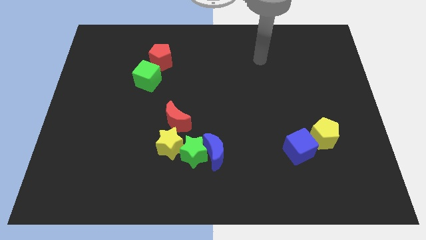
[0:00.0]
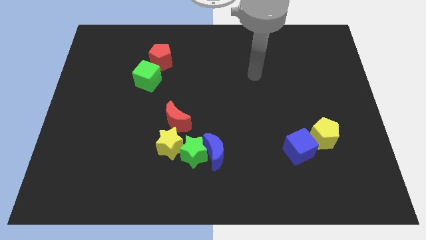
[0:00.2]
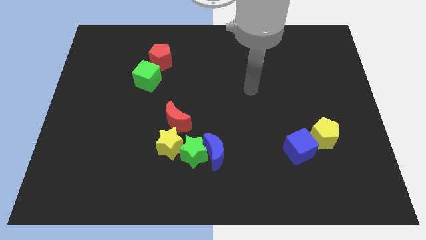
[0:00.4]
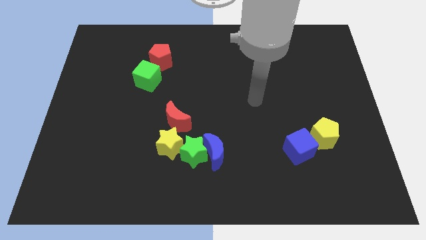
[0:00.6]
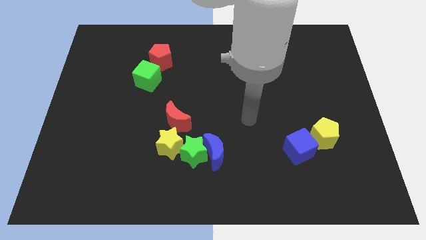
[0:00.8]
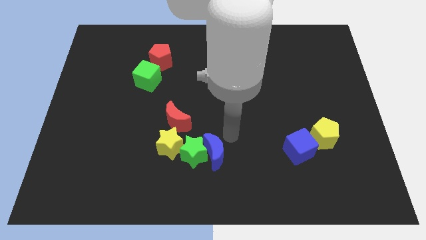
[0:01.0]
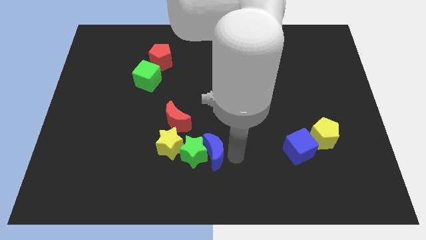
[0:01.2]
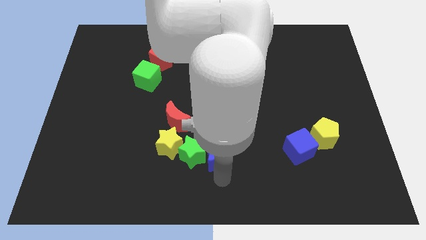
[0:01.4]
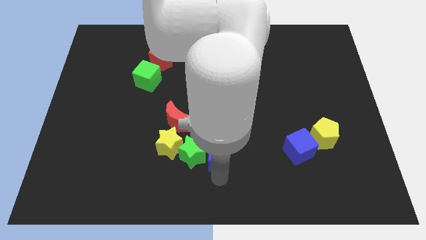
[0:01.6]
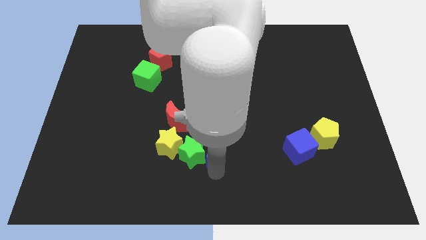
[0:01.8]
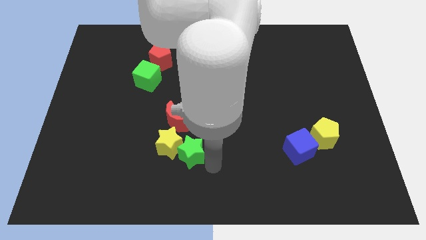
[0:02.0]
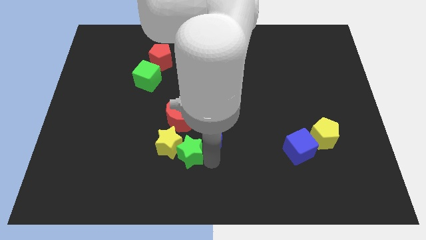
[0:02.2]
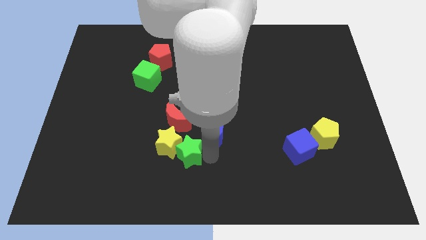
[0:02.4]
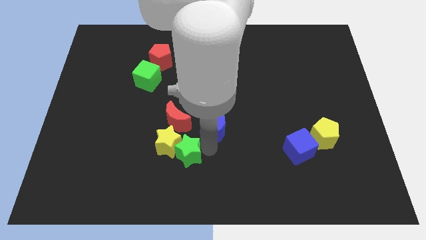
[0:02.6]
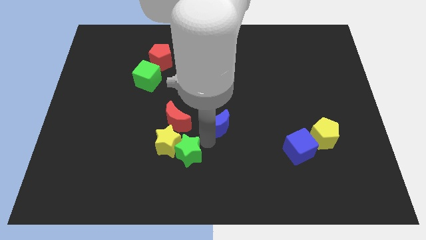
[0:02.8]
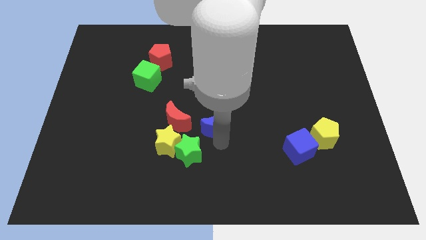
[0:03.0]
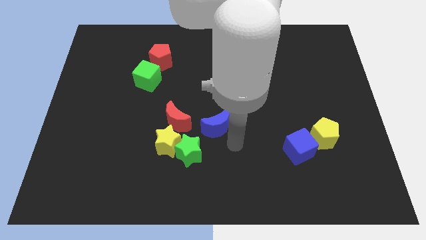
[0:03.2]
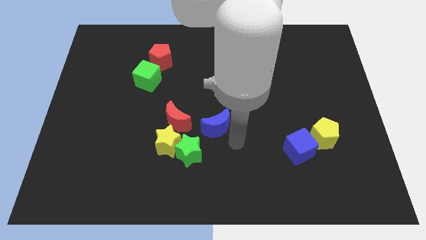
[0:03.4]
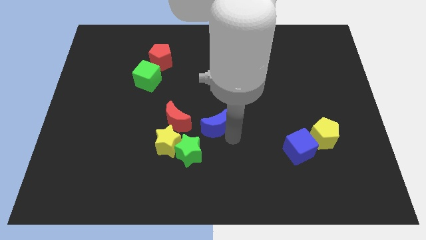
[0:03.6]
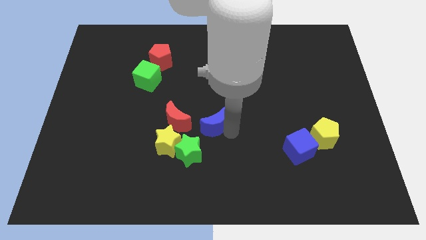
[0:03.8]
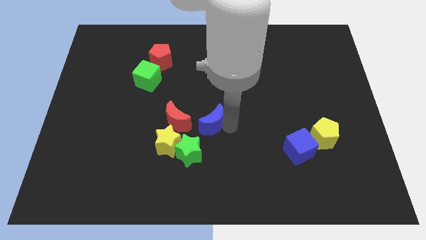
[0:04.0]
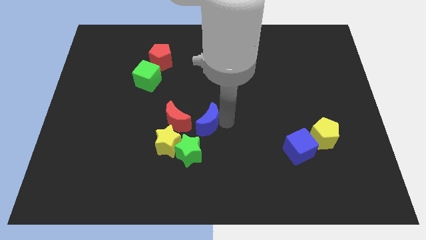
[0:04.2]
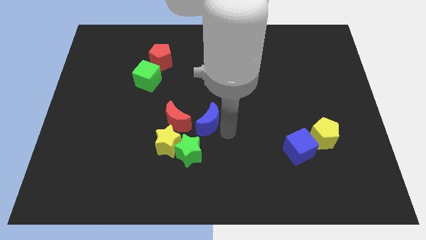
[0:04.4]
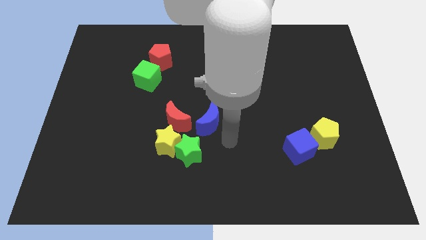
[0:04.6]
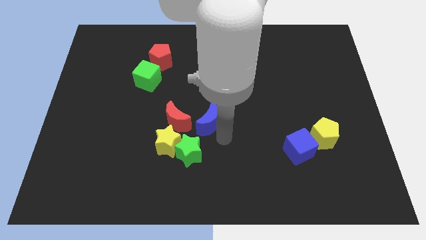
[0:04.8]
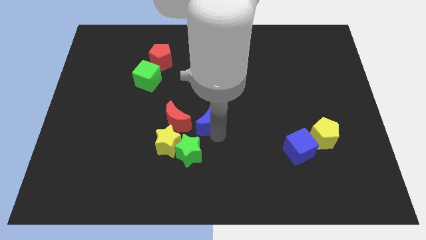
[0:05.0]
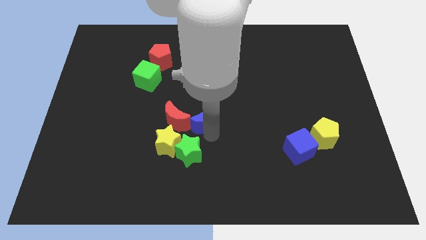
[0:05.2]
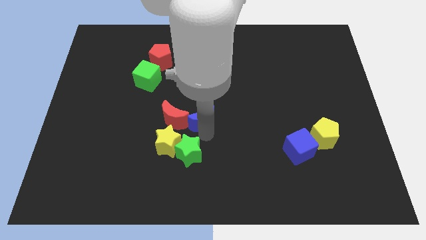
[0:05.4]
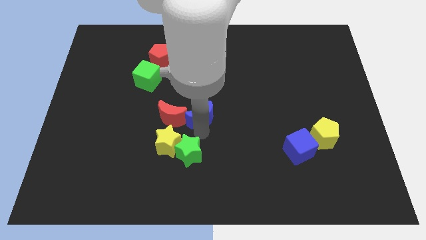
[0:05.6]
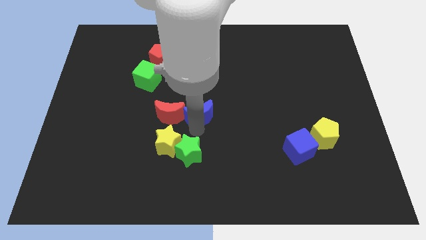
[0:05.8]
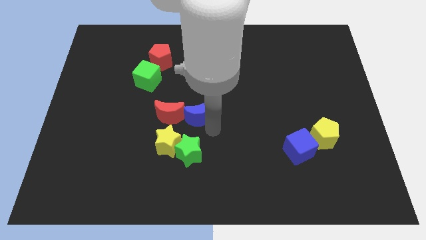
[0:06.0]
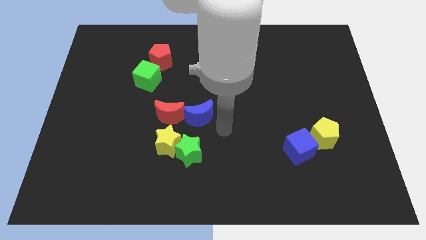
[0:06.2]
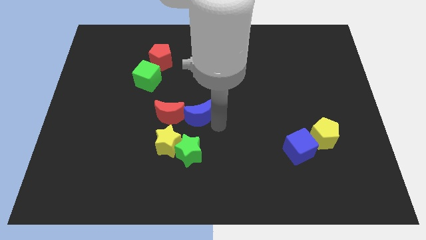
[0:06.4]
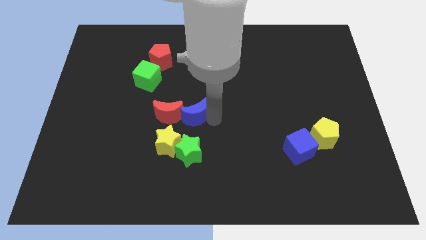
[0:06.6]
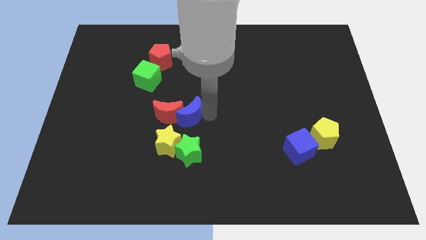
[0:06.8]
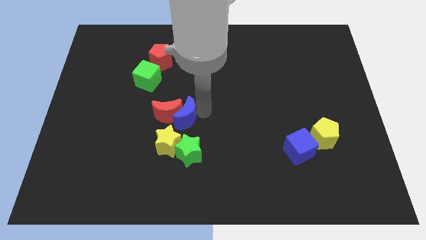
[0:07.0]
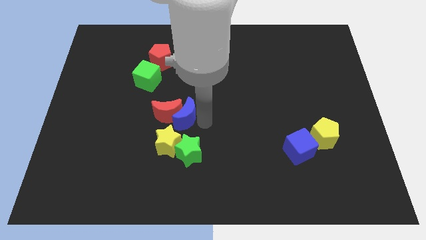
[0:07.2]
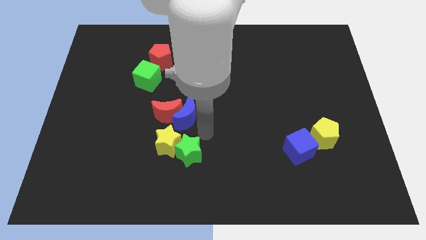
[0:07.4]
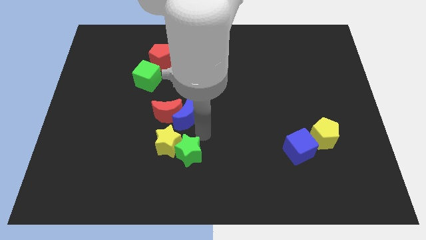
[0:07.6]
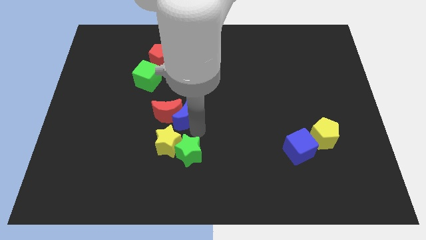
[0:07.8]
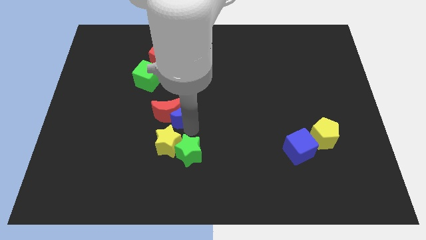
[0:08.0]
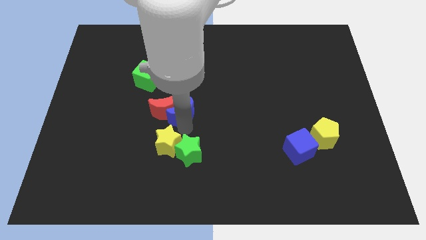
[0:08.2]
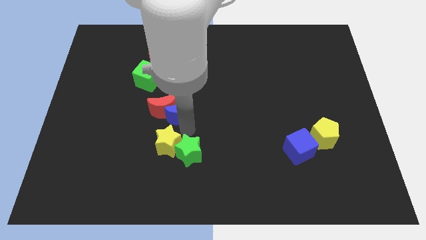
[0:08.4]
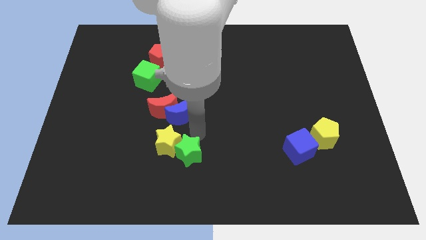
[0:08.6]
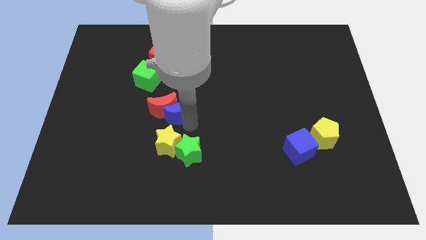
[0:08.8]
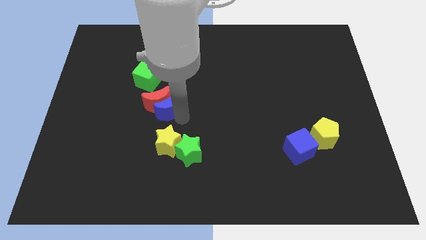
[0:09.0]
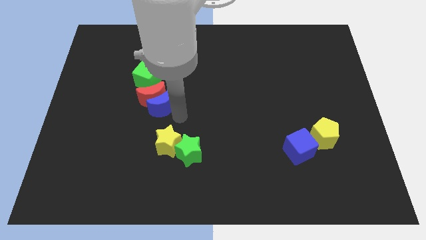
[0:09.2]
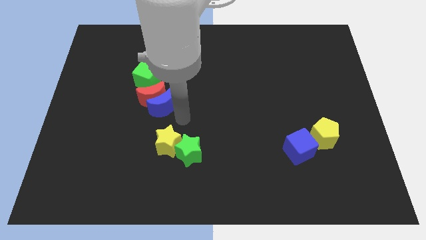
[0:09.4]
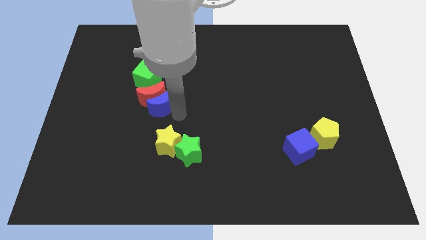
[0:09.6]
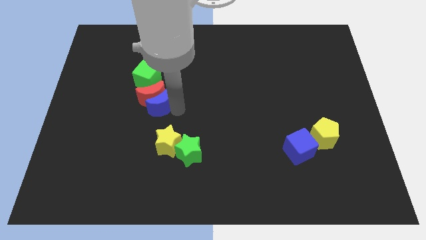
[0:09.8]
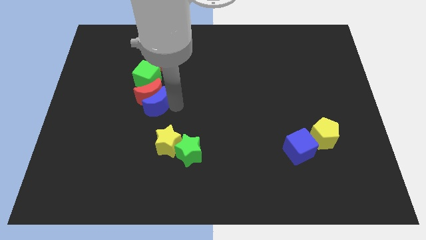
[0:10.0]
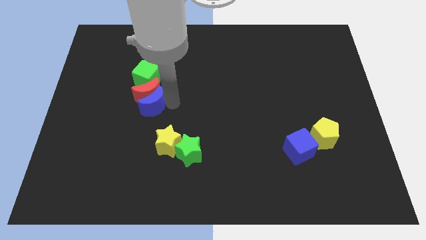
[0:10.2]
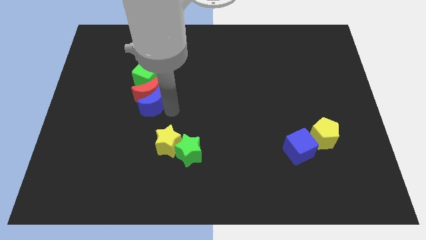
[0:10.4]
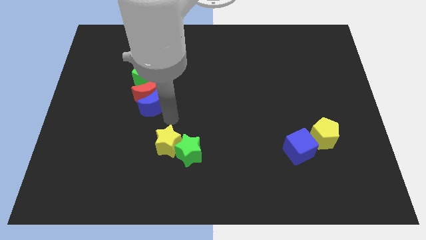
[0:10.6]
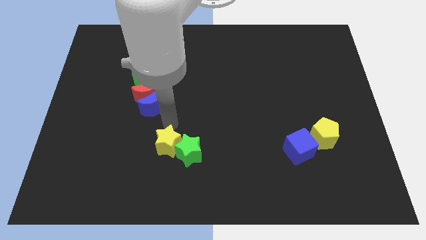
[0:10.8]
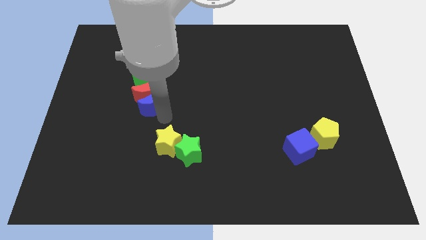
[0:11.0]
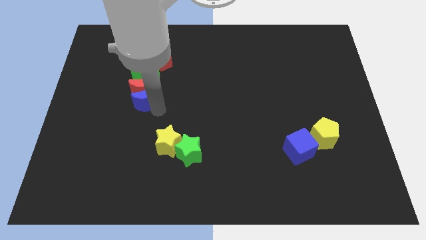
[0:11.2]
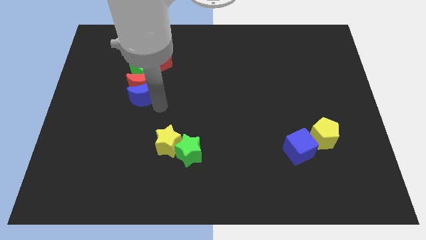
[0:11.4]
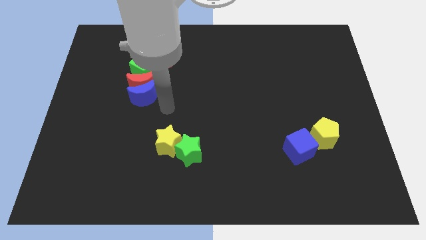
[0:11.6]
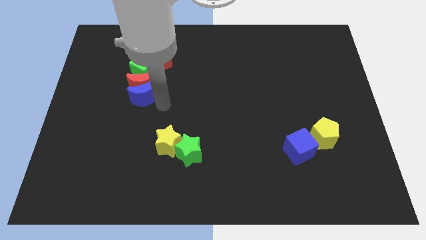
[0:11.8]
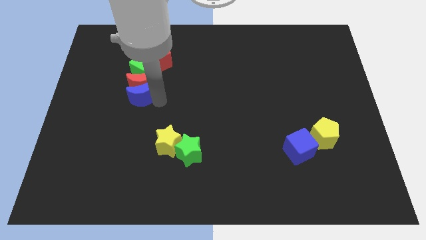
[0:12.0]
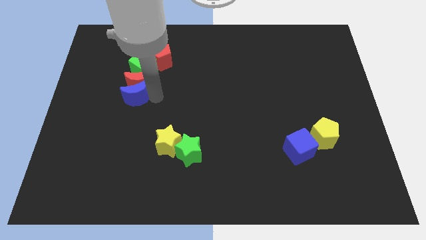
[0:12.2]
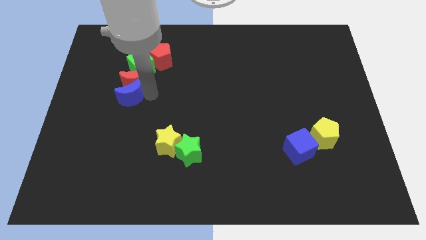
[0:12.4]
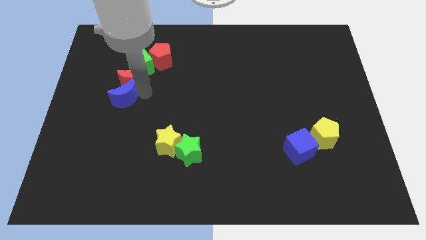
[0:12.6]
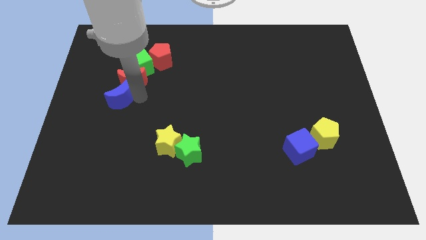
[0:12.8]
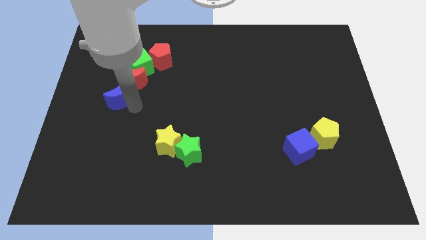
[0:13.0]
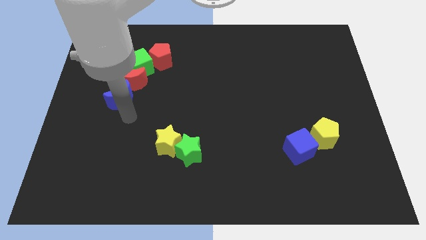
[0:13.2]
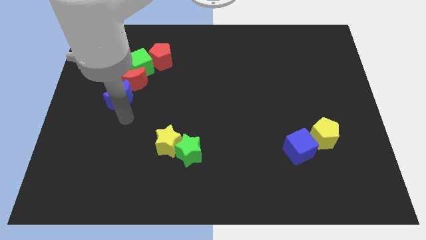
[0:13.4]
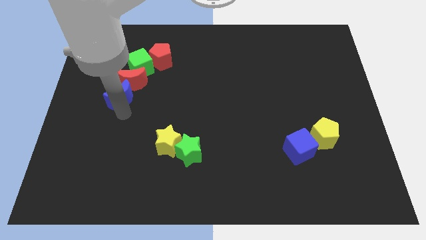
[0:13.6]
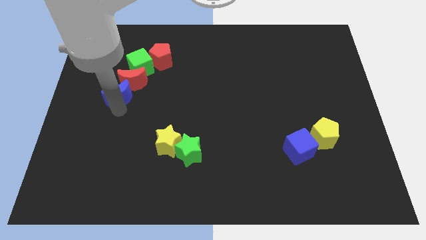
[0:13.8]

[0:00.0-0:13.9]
move the blue moon diagonally down and to the left of the green cube
